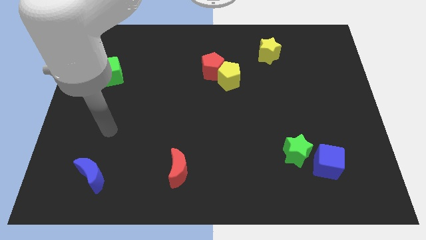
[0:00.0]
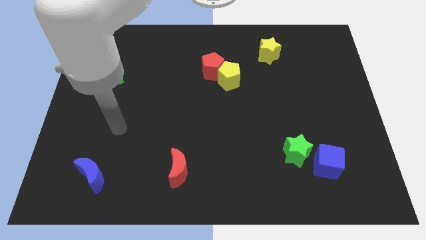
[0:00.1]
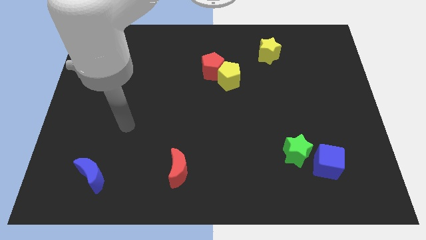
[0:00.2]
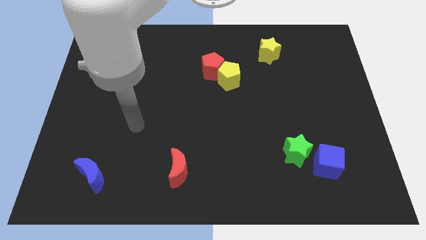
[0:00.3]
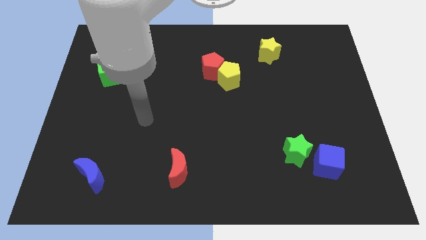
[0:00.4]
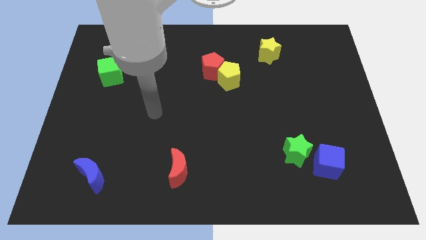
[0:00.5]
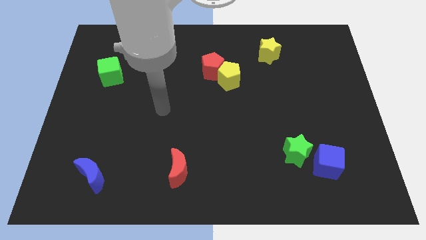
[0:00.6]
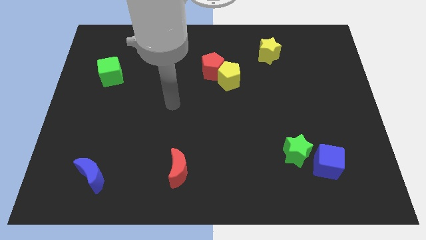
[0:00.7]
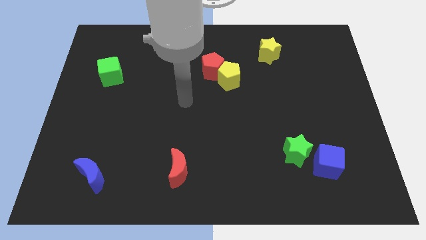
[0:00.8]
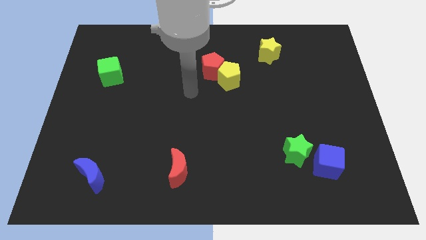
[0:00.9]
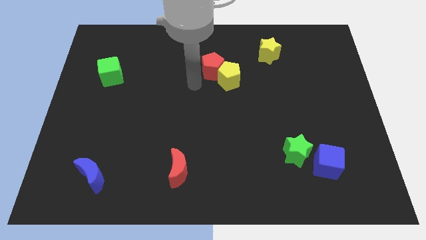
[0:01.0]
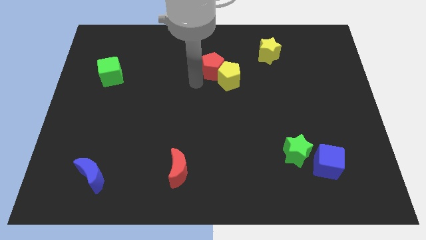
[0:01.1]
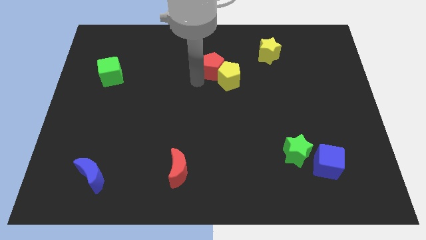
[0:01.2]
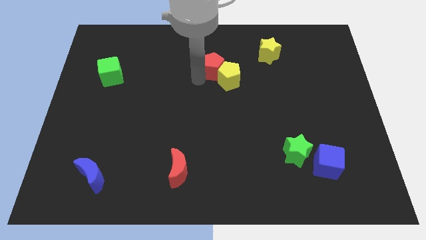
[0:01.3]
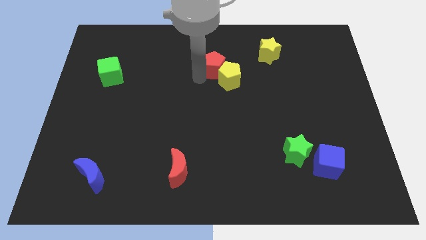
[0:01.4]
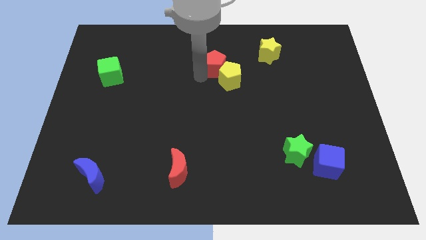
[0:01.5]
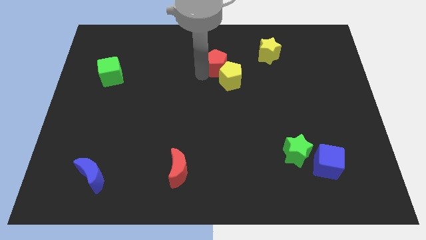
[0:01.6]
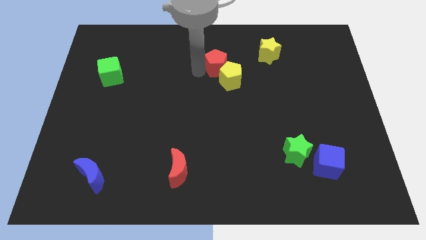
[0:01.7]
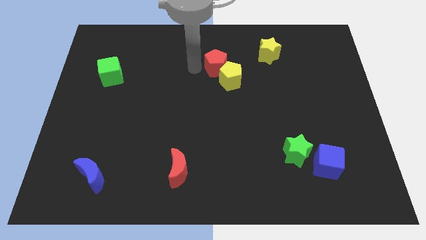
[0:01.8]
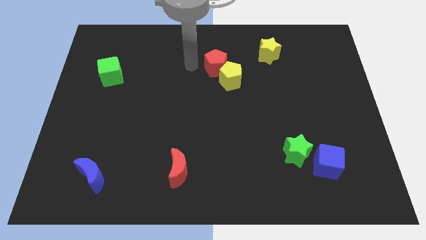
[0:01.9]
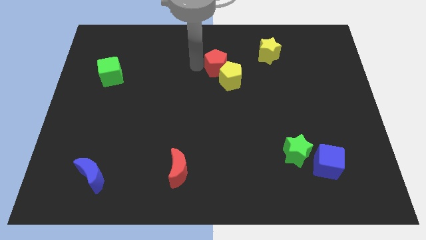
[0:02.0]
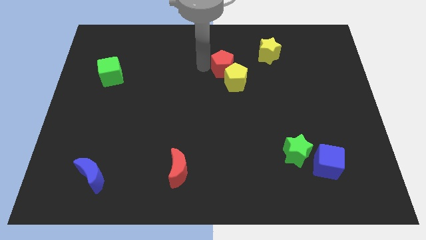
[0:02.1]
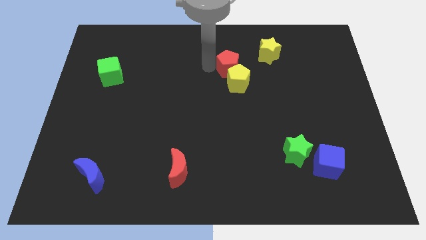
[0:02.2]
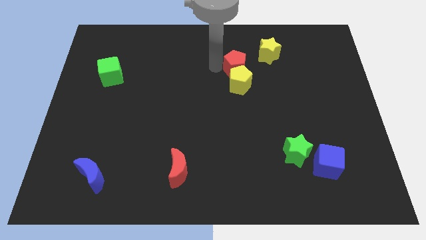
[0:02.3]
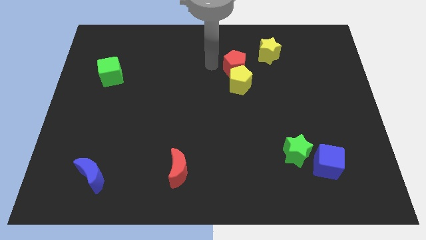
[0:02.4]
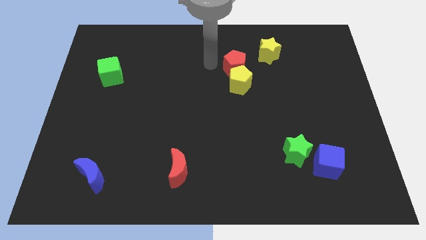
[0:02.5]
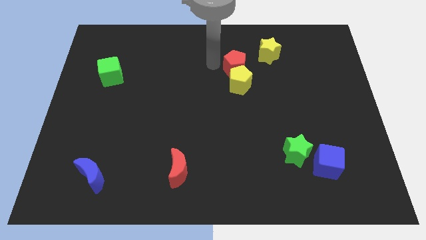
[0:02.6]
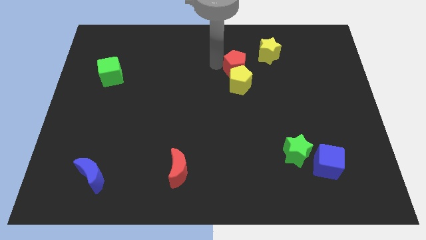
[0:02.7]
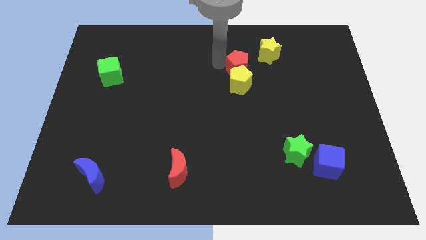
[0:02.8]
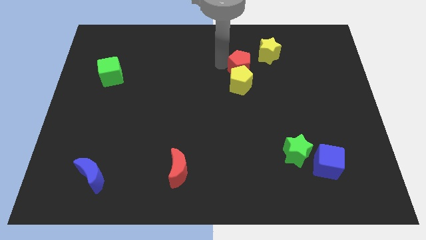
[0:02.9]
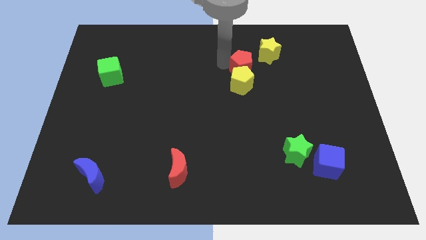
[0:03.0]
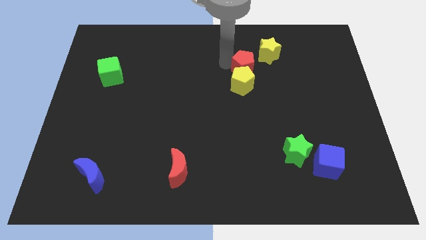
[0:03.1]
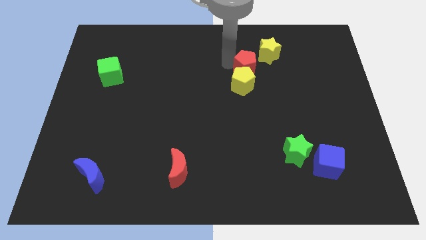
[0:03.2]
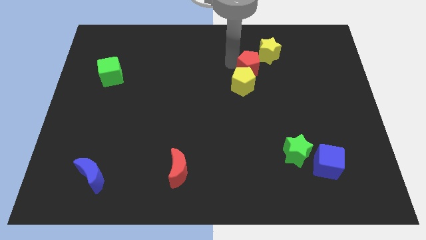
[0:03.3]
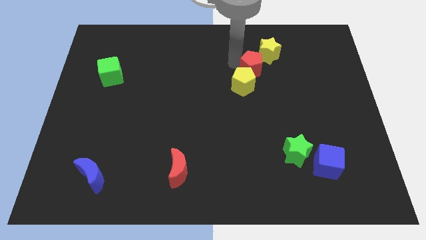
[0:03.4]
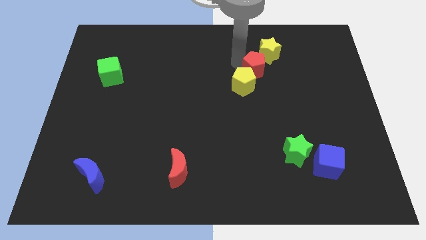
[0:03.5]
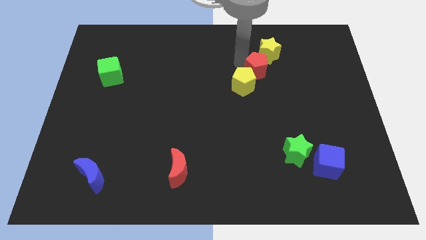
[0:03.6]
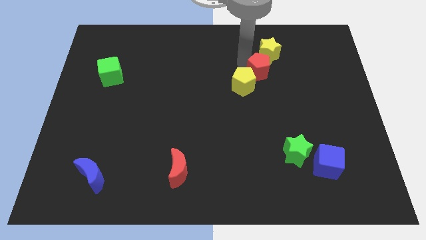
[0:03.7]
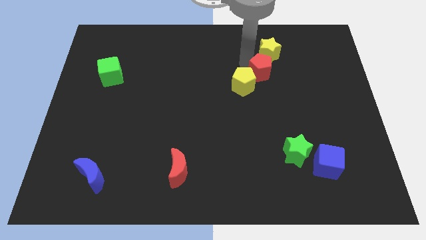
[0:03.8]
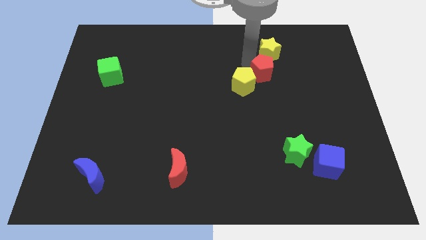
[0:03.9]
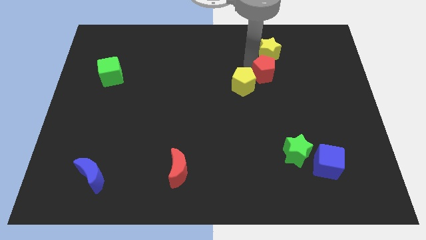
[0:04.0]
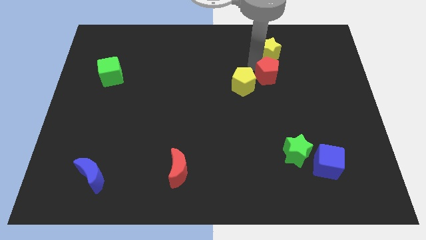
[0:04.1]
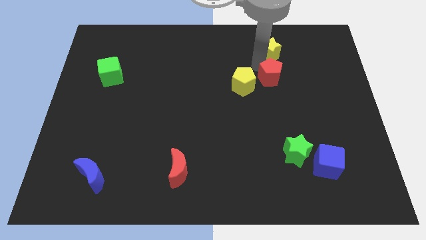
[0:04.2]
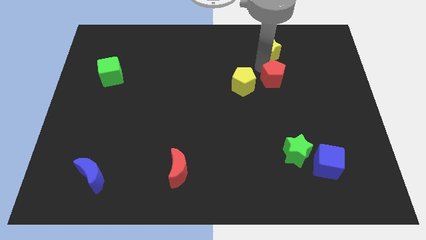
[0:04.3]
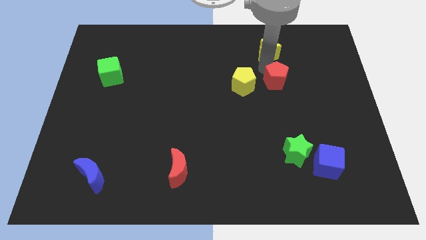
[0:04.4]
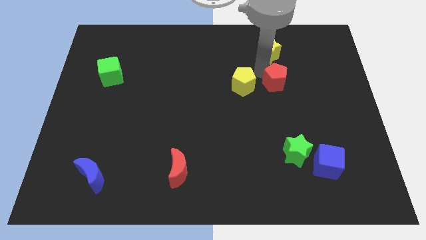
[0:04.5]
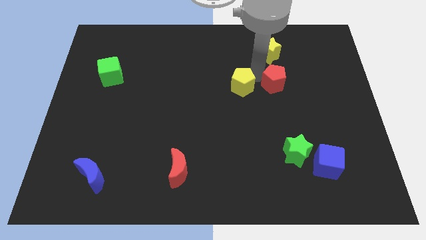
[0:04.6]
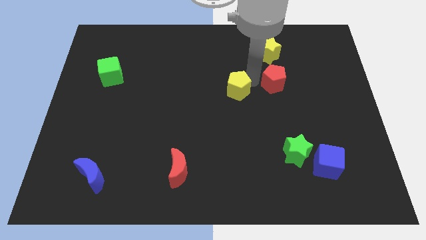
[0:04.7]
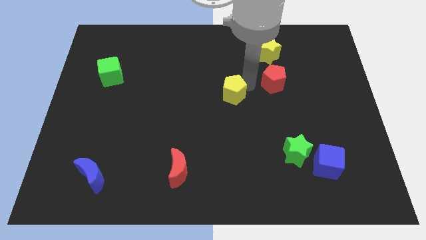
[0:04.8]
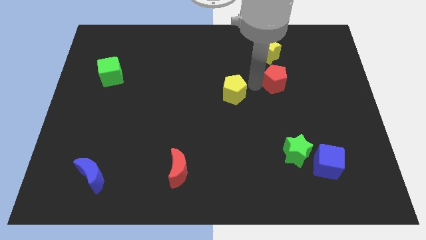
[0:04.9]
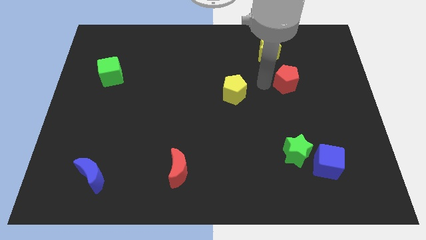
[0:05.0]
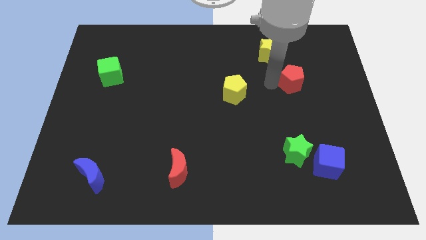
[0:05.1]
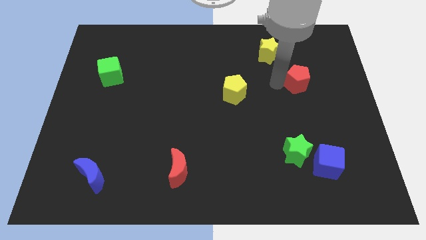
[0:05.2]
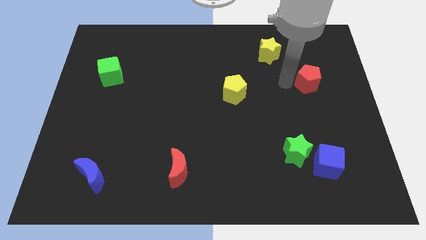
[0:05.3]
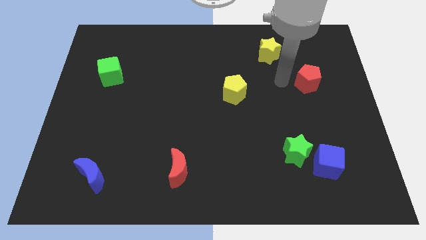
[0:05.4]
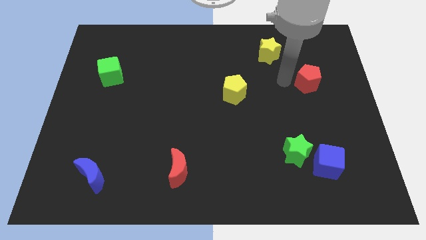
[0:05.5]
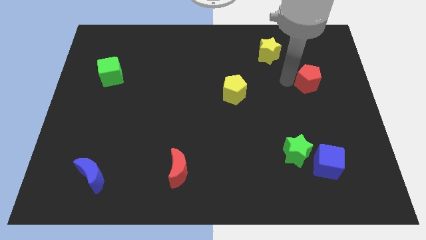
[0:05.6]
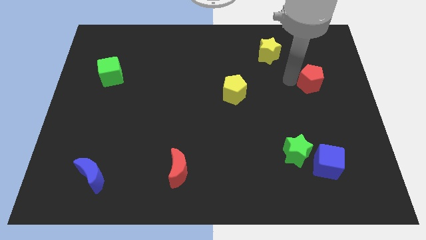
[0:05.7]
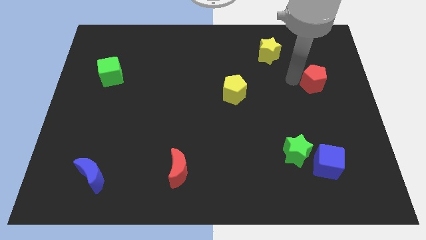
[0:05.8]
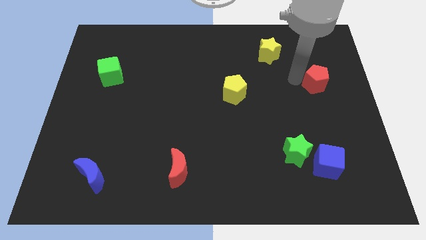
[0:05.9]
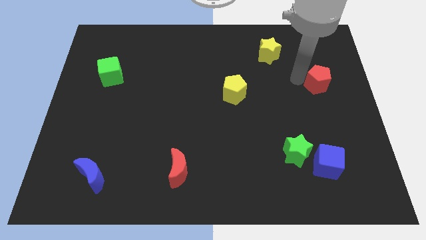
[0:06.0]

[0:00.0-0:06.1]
put the red pentagon to the center right
